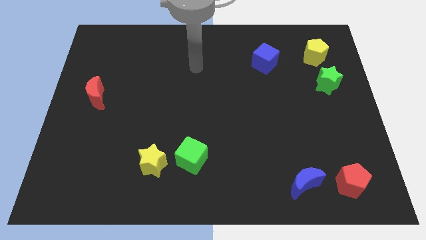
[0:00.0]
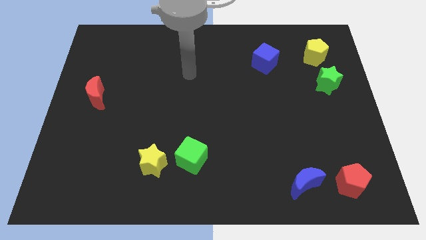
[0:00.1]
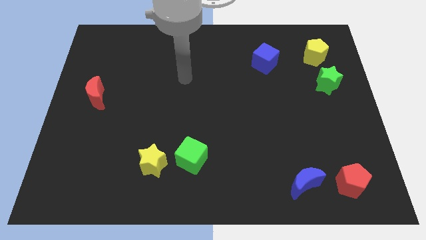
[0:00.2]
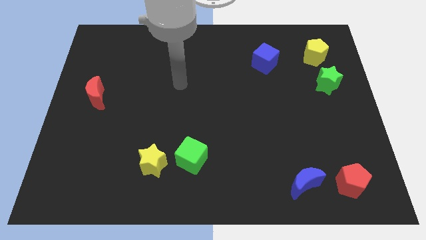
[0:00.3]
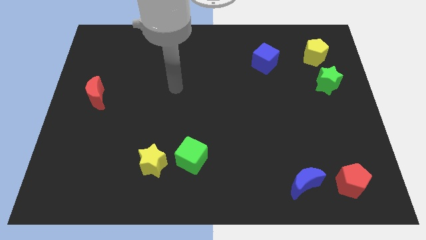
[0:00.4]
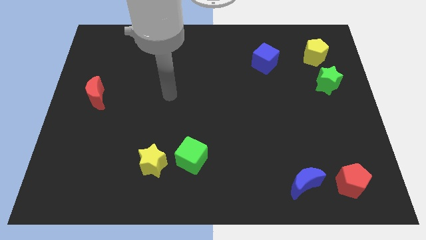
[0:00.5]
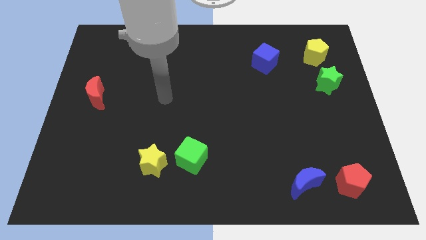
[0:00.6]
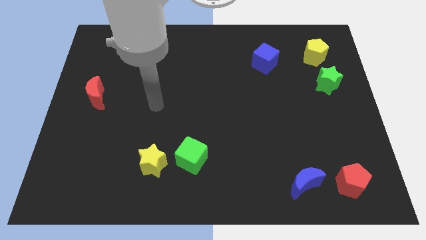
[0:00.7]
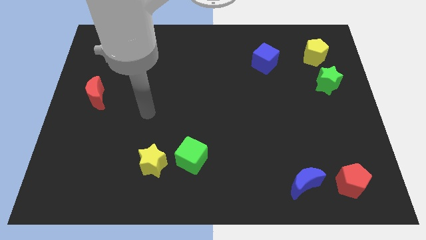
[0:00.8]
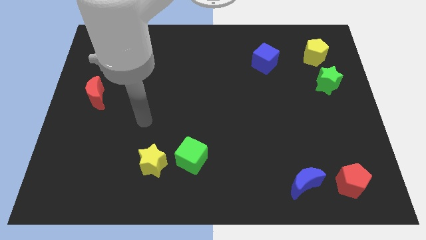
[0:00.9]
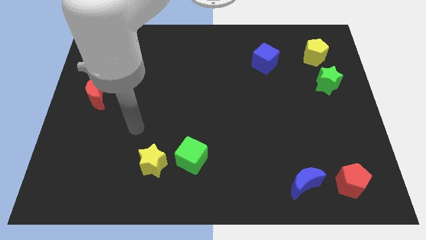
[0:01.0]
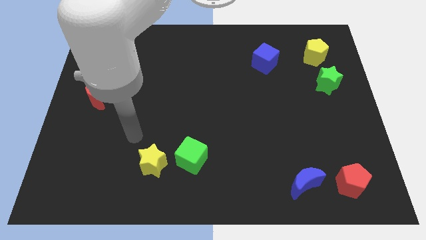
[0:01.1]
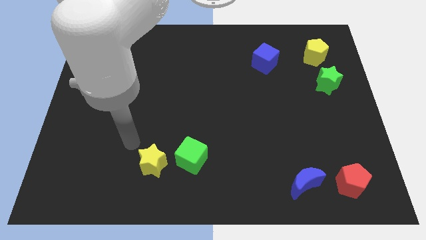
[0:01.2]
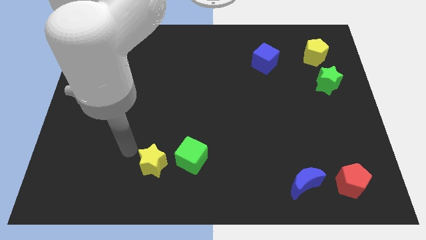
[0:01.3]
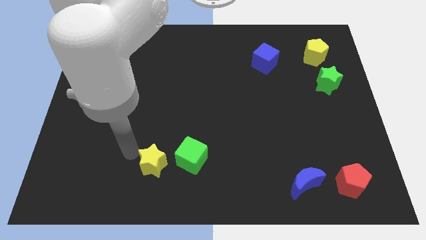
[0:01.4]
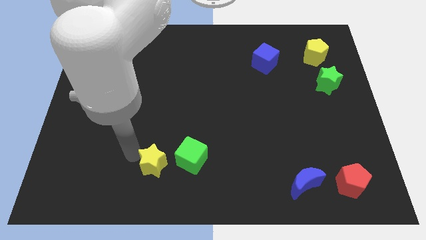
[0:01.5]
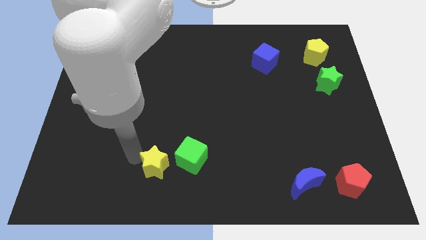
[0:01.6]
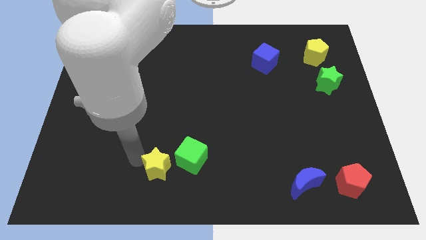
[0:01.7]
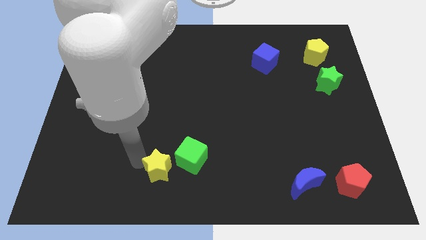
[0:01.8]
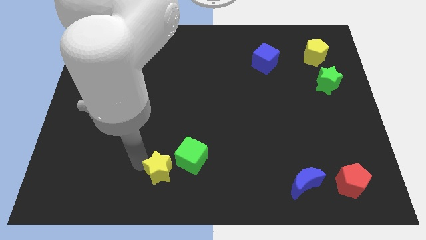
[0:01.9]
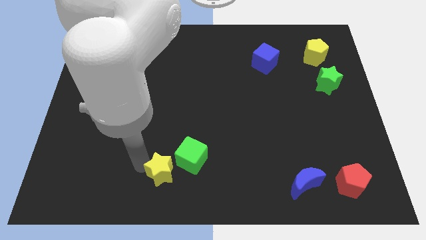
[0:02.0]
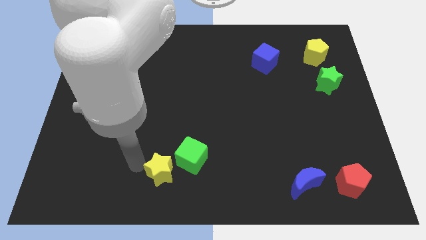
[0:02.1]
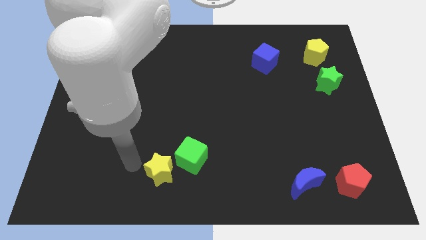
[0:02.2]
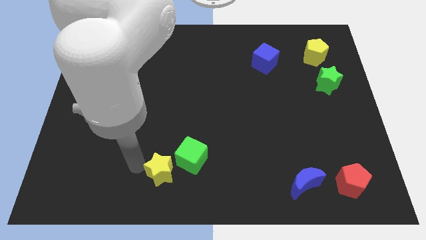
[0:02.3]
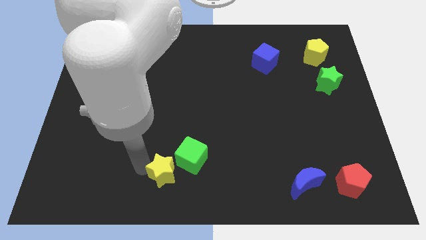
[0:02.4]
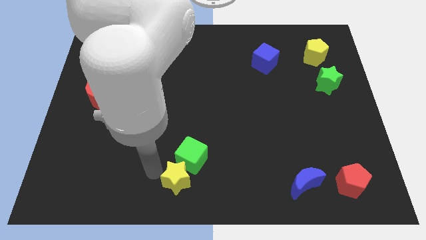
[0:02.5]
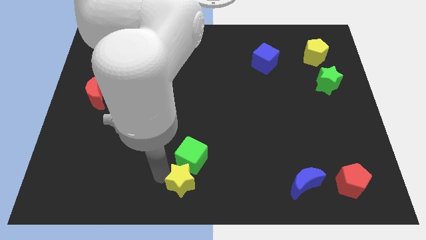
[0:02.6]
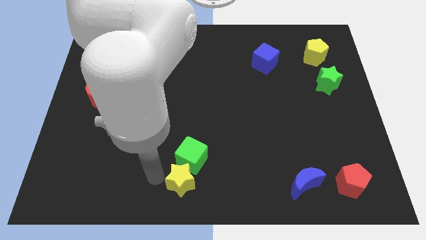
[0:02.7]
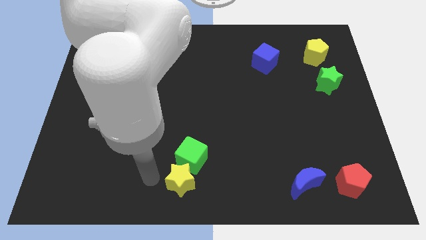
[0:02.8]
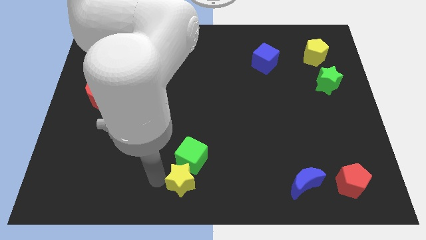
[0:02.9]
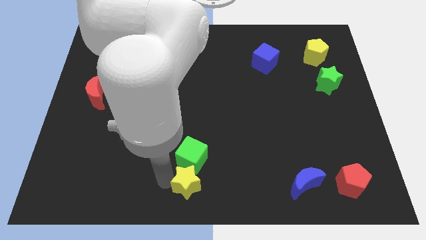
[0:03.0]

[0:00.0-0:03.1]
slightly push the yellow star right

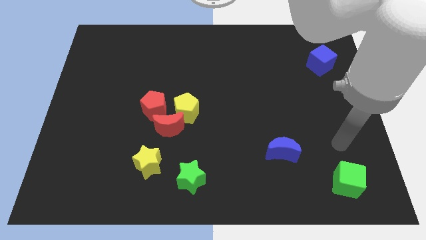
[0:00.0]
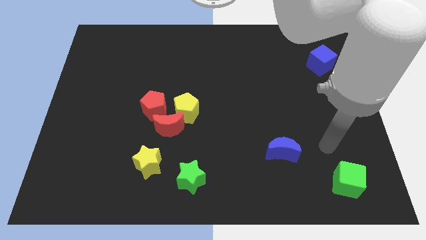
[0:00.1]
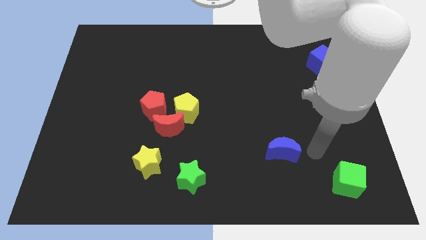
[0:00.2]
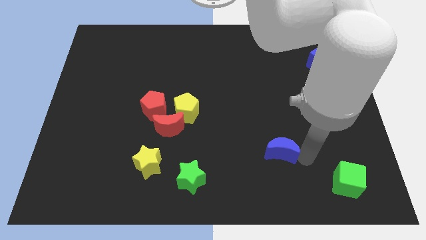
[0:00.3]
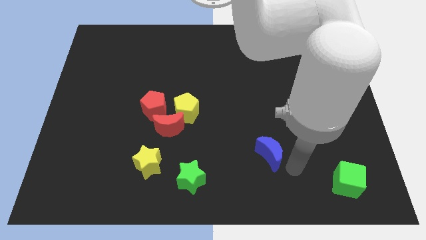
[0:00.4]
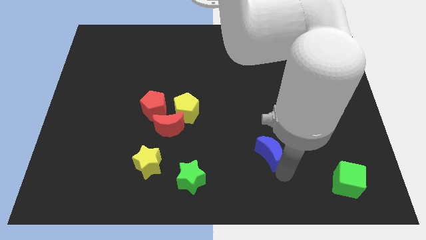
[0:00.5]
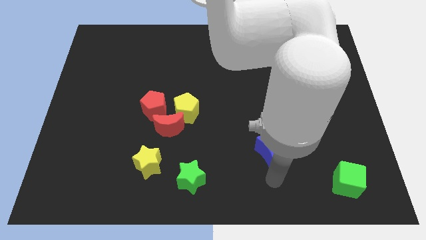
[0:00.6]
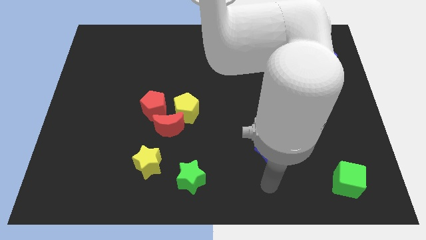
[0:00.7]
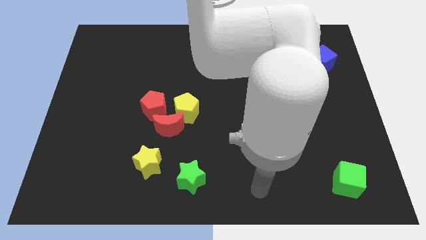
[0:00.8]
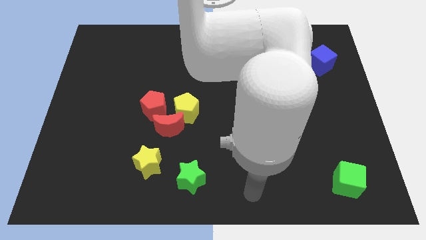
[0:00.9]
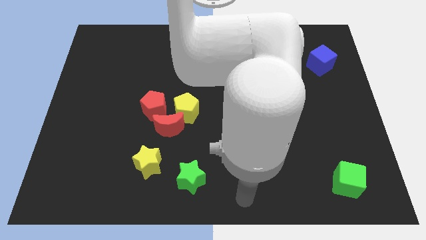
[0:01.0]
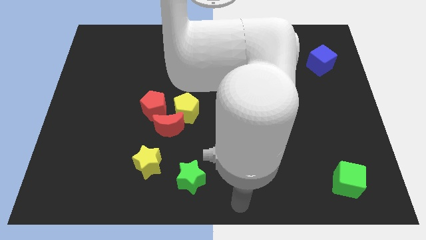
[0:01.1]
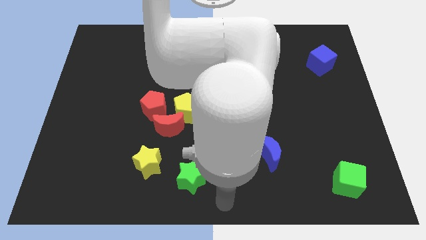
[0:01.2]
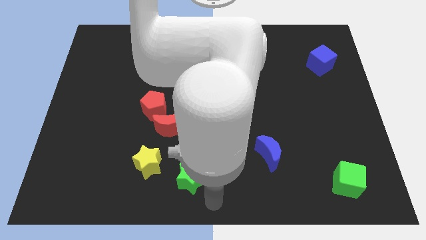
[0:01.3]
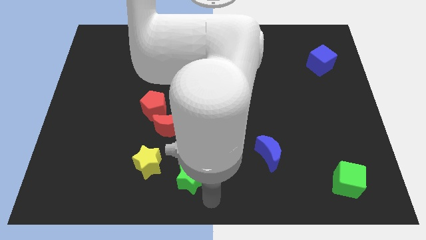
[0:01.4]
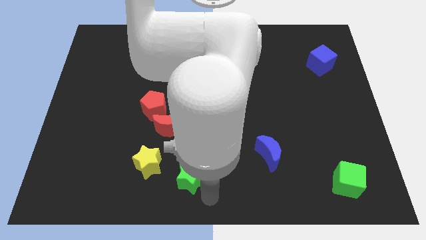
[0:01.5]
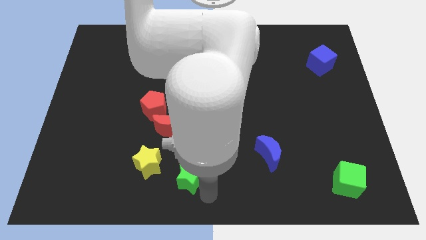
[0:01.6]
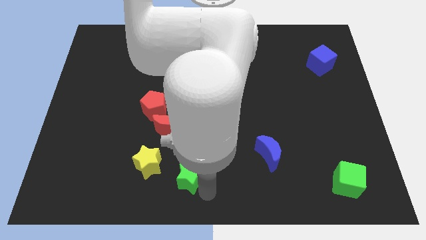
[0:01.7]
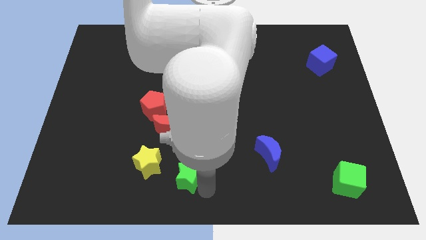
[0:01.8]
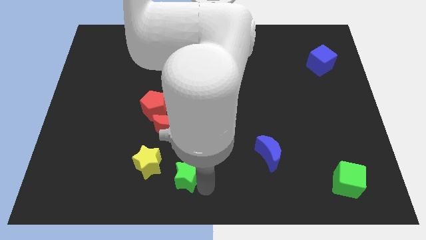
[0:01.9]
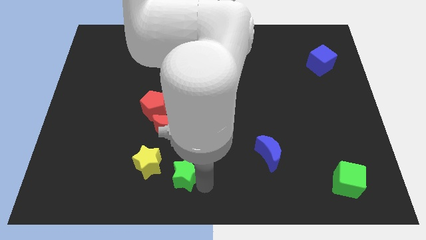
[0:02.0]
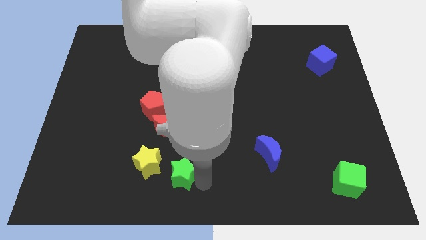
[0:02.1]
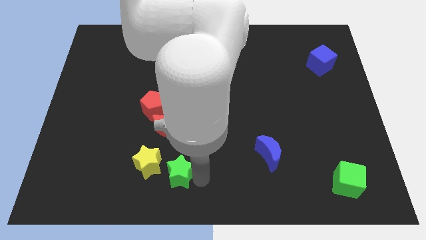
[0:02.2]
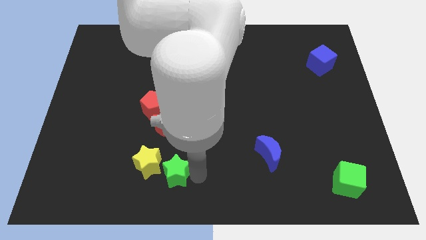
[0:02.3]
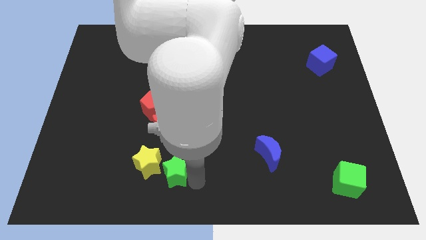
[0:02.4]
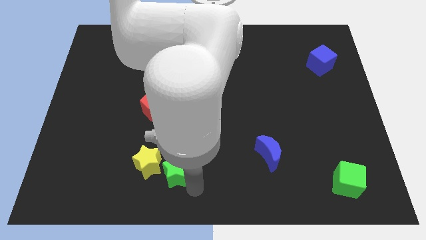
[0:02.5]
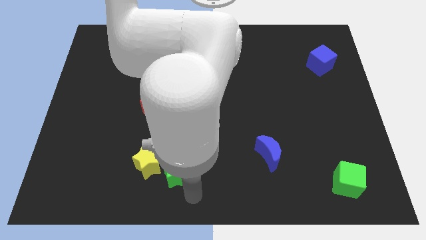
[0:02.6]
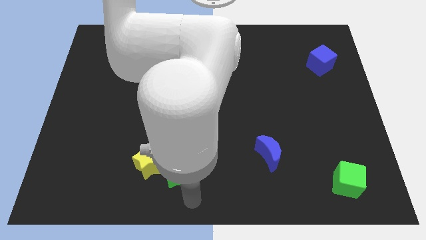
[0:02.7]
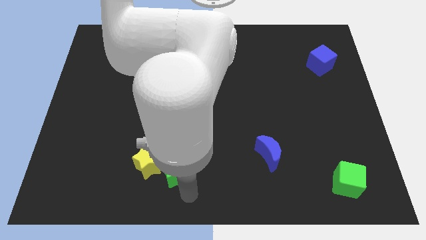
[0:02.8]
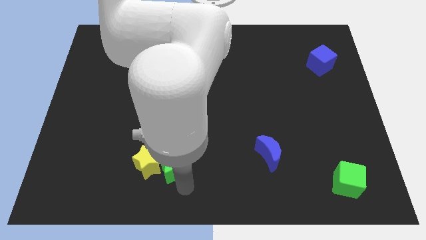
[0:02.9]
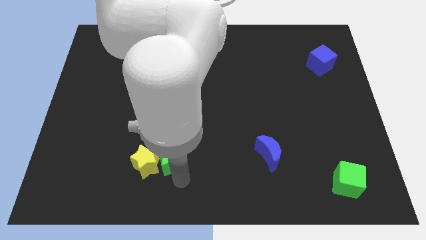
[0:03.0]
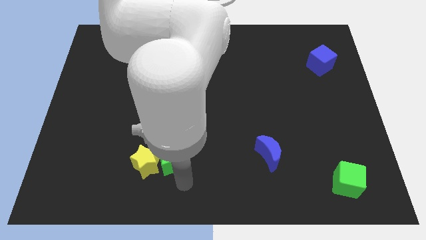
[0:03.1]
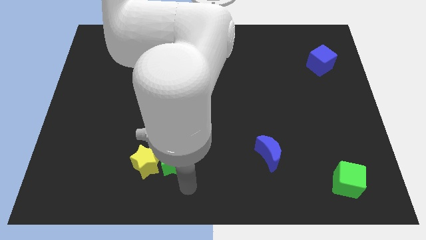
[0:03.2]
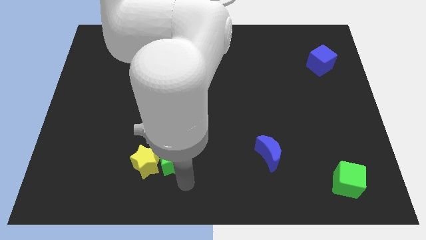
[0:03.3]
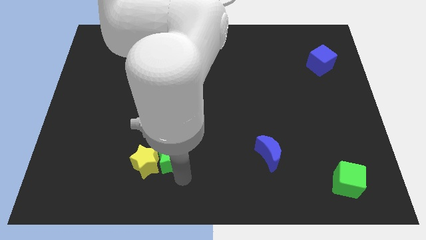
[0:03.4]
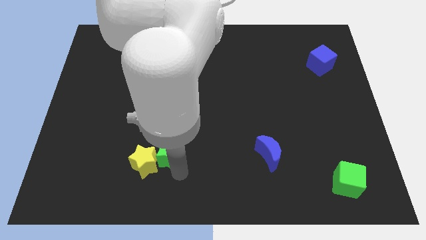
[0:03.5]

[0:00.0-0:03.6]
slightly move the green star up and to the left diagonally

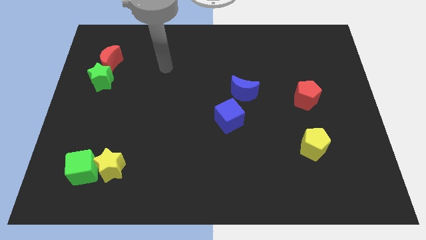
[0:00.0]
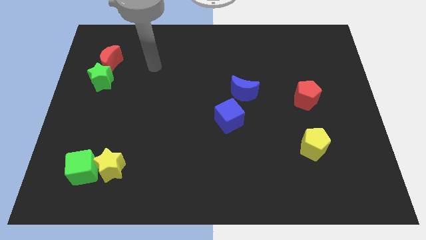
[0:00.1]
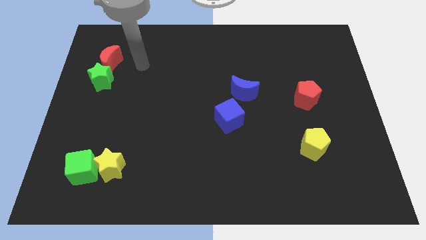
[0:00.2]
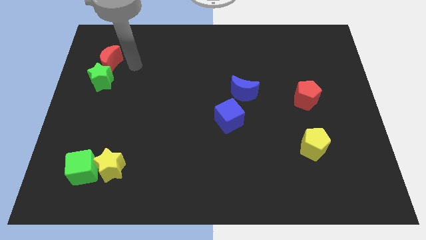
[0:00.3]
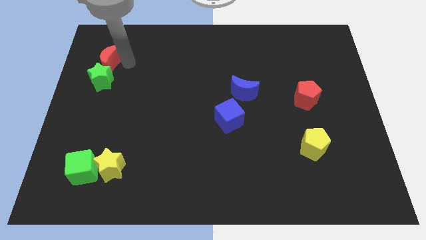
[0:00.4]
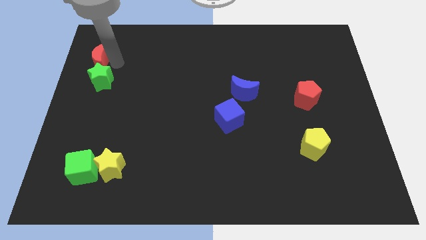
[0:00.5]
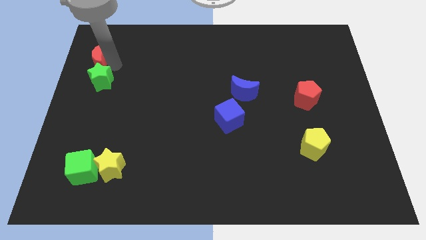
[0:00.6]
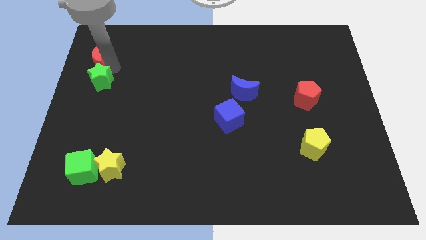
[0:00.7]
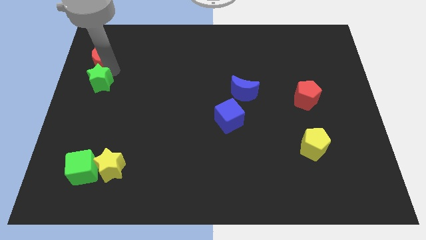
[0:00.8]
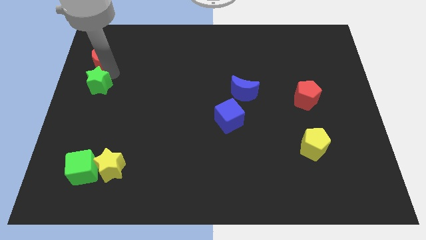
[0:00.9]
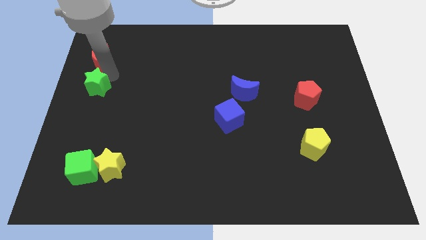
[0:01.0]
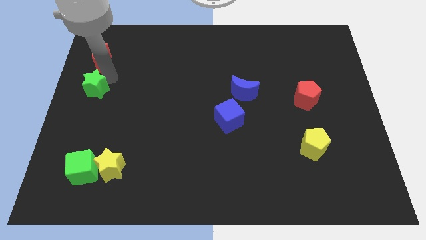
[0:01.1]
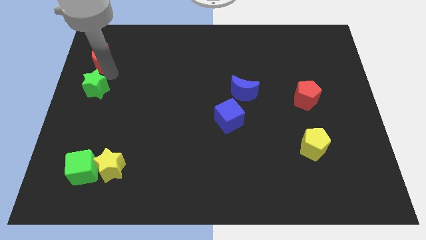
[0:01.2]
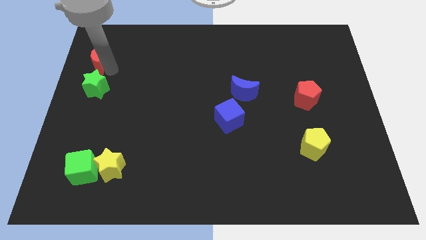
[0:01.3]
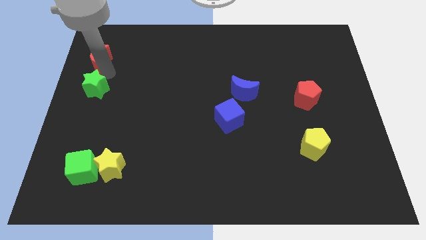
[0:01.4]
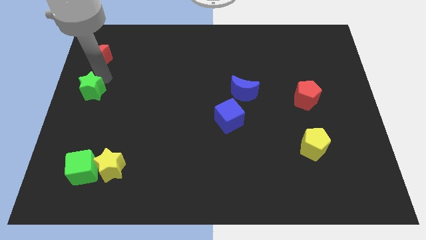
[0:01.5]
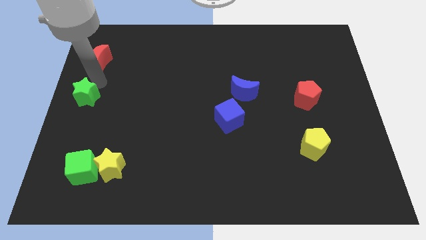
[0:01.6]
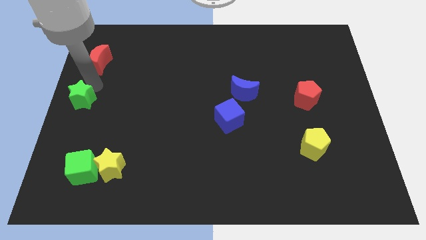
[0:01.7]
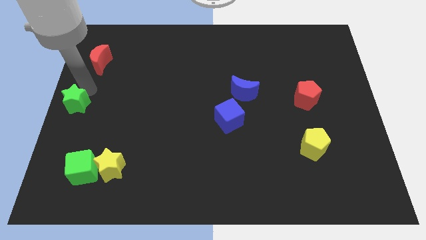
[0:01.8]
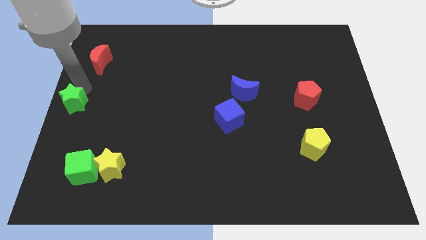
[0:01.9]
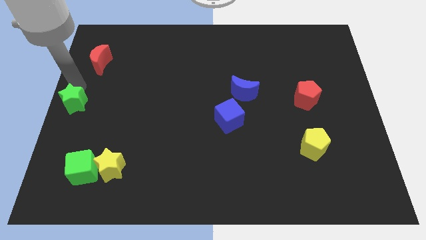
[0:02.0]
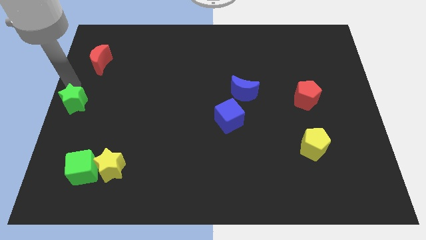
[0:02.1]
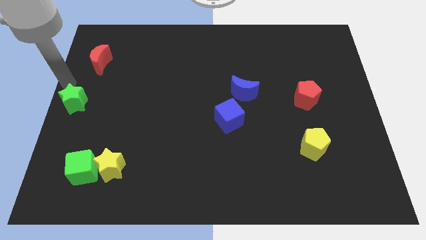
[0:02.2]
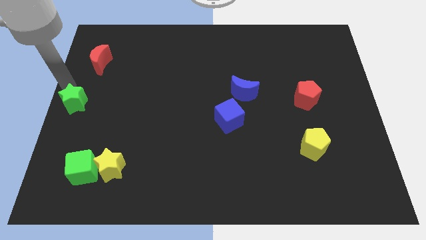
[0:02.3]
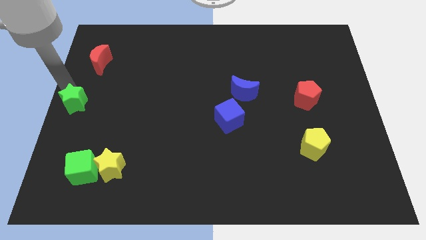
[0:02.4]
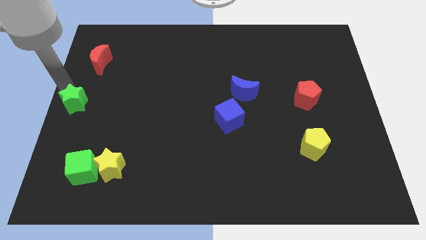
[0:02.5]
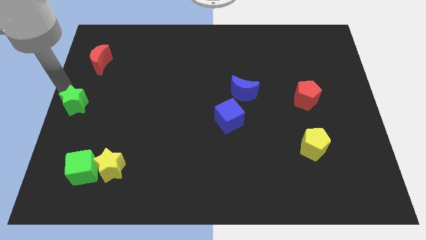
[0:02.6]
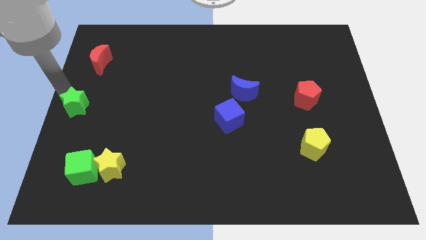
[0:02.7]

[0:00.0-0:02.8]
slide the green star somewhat down
